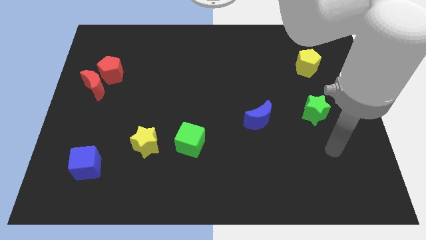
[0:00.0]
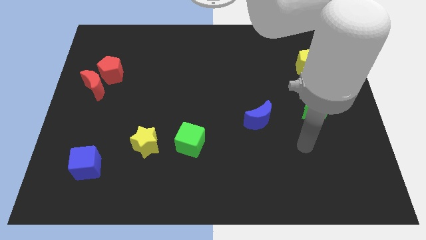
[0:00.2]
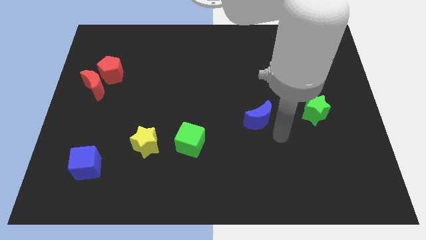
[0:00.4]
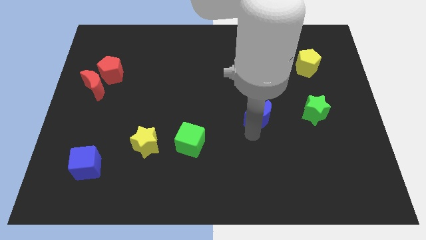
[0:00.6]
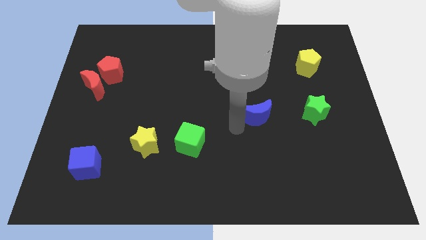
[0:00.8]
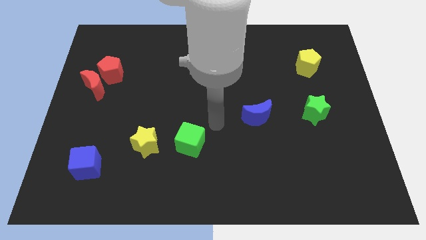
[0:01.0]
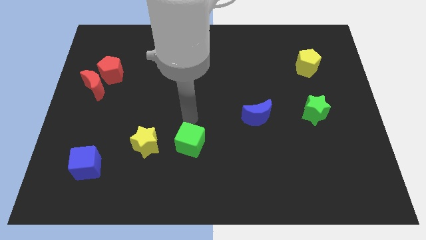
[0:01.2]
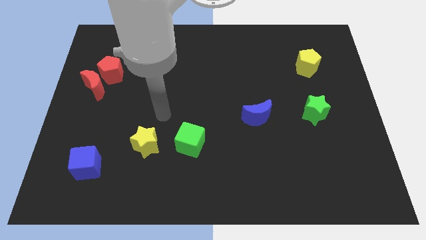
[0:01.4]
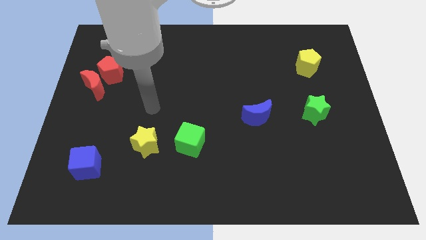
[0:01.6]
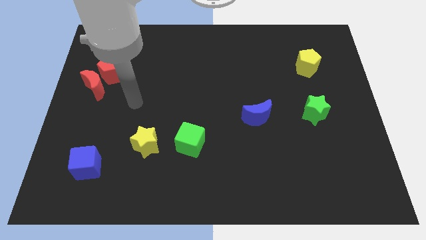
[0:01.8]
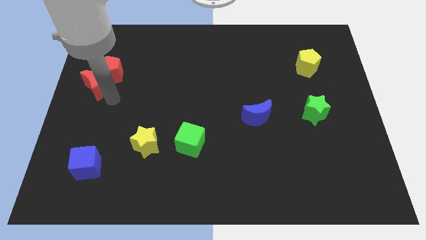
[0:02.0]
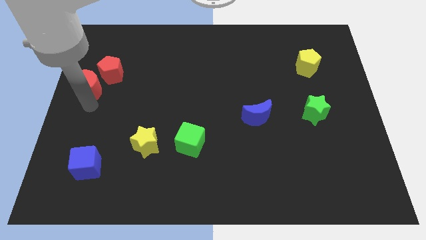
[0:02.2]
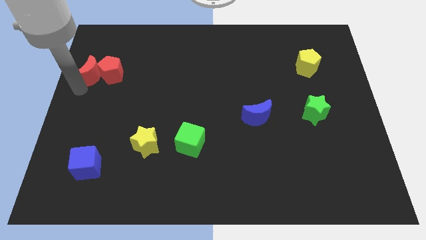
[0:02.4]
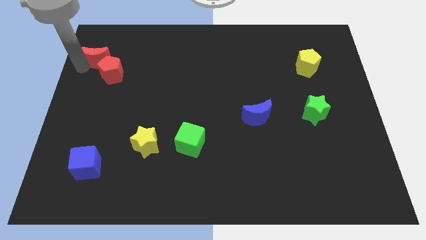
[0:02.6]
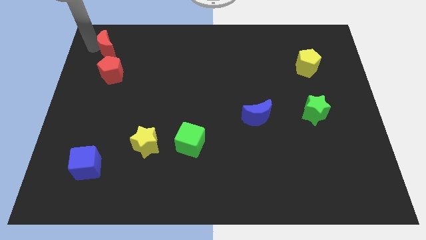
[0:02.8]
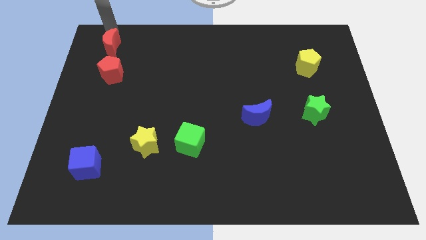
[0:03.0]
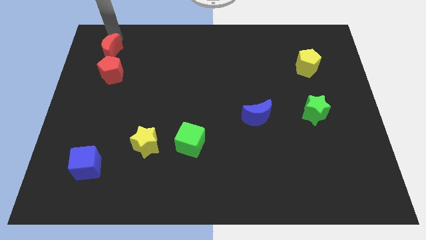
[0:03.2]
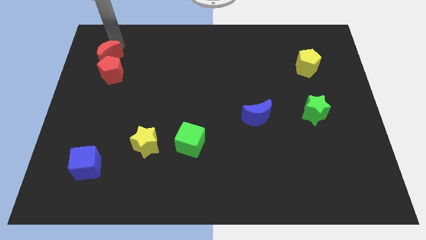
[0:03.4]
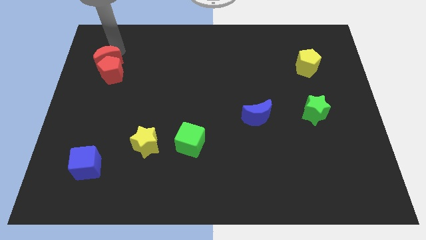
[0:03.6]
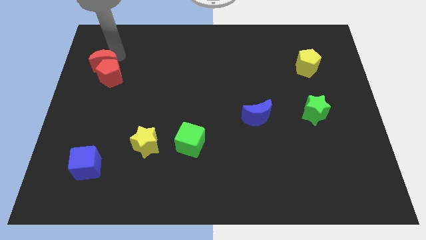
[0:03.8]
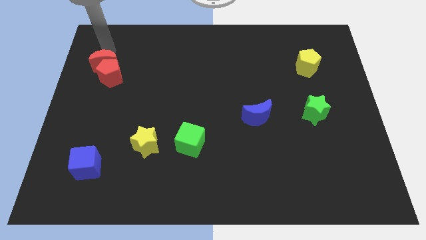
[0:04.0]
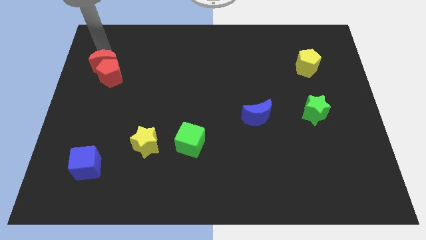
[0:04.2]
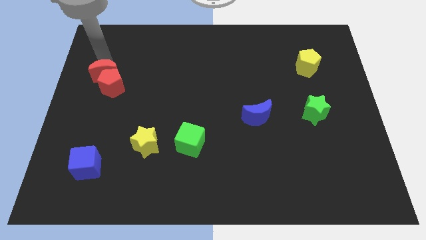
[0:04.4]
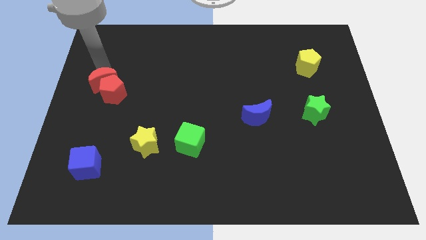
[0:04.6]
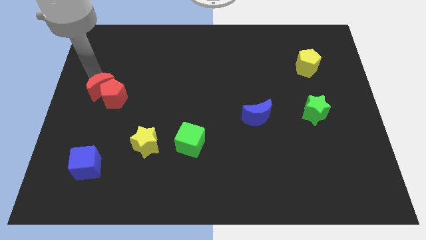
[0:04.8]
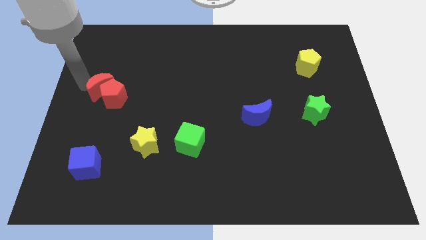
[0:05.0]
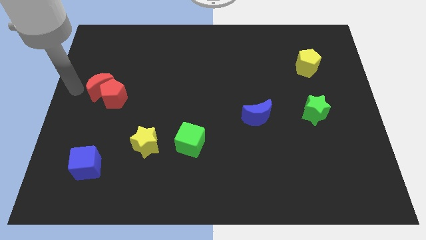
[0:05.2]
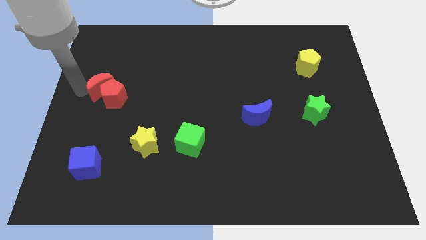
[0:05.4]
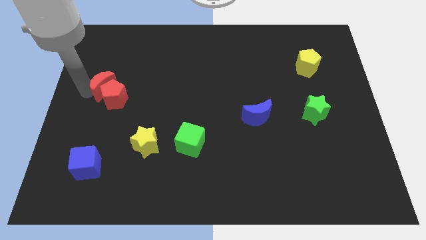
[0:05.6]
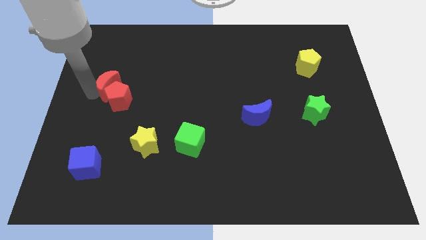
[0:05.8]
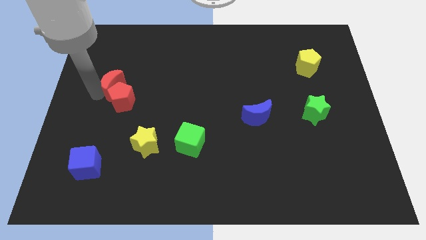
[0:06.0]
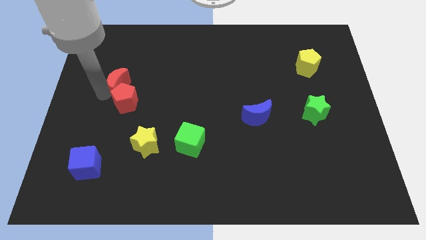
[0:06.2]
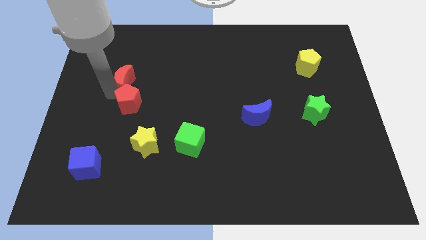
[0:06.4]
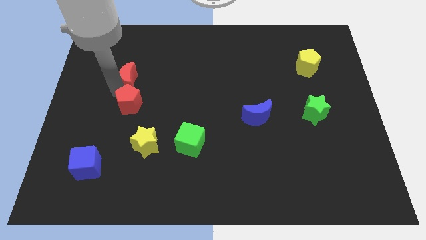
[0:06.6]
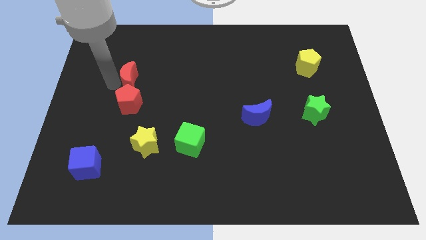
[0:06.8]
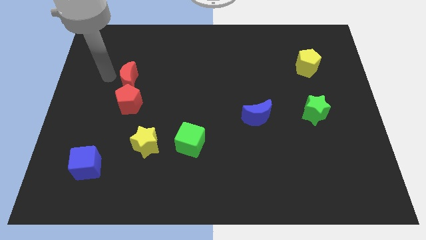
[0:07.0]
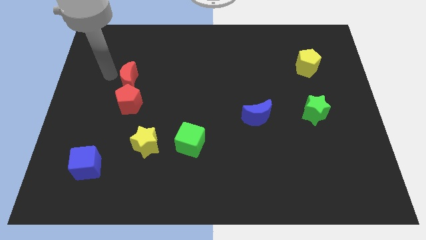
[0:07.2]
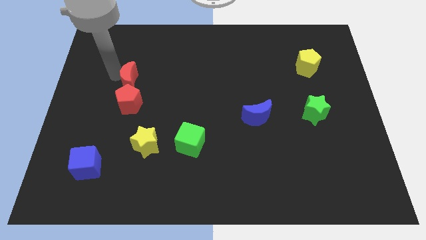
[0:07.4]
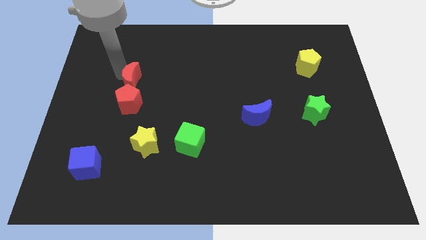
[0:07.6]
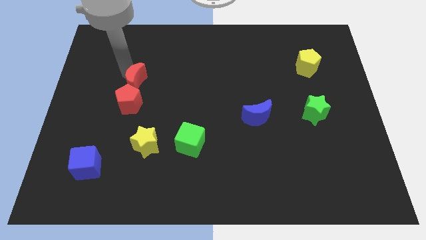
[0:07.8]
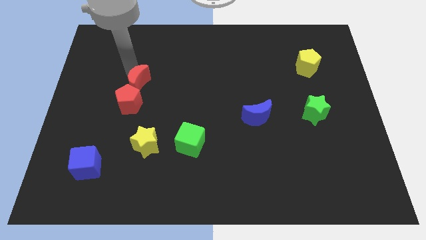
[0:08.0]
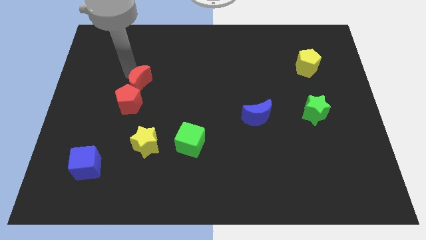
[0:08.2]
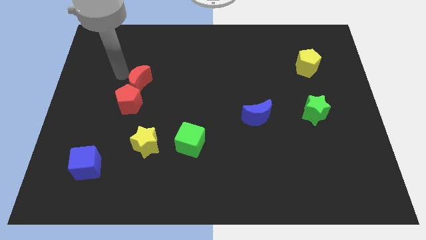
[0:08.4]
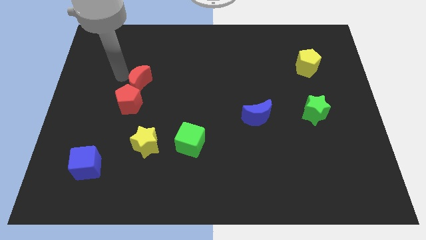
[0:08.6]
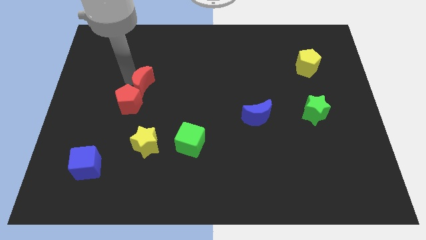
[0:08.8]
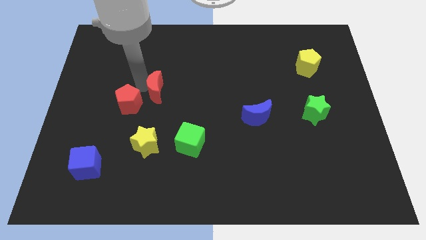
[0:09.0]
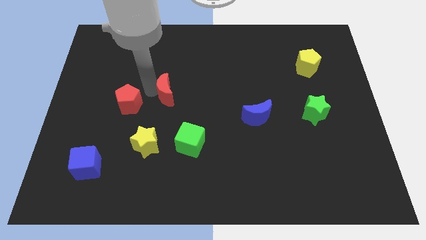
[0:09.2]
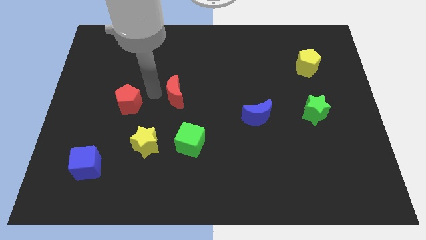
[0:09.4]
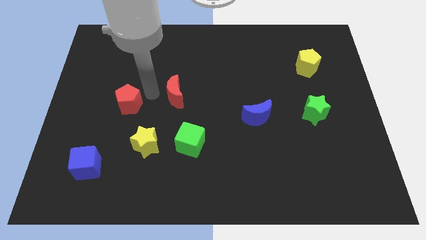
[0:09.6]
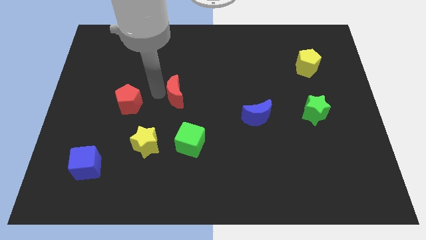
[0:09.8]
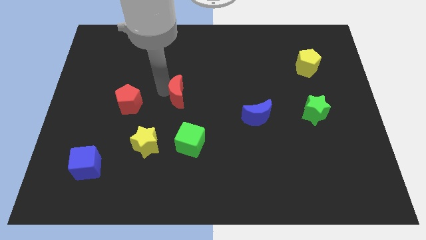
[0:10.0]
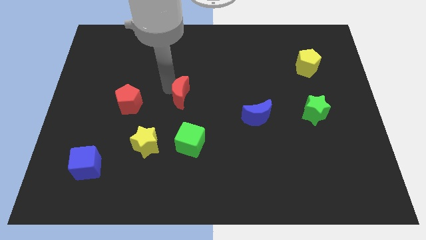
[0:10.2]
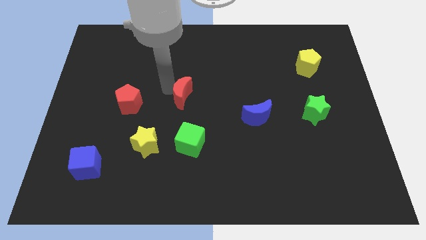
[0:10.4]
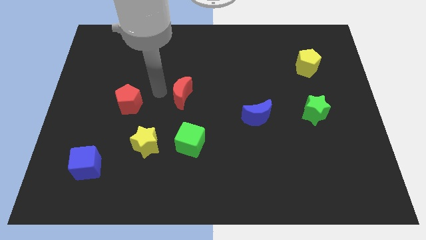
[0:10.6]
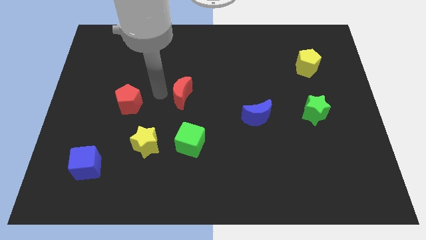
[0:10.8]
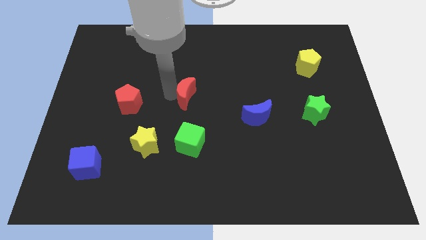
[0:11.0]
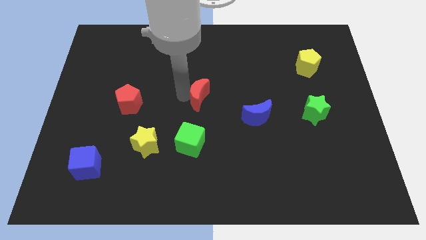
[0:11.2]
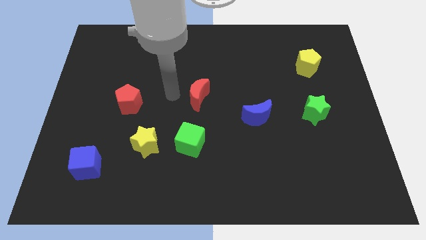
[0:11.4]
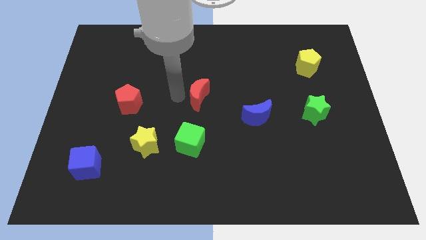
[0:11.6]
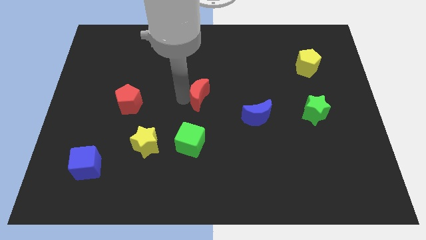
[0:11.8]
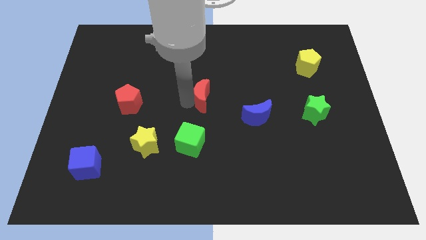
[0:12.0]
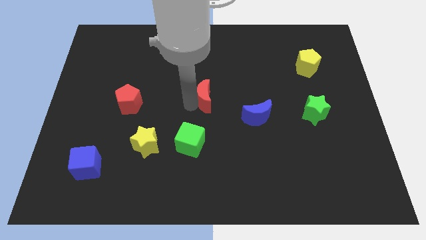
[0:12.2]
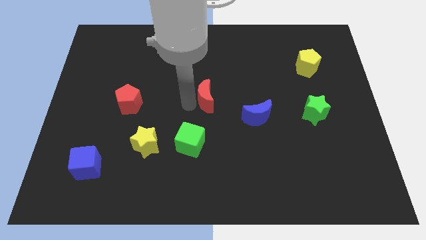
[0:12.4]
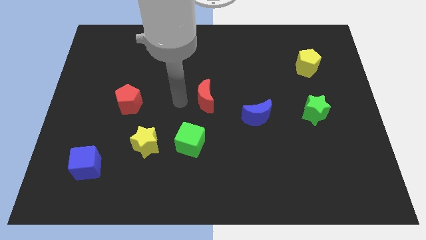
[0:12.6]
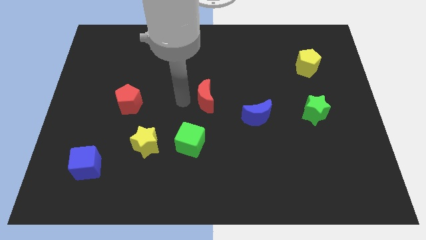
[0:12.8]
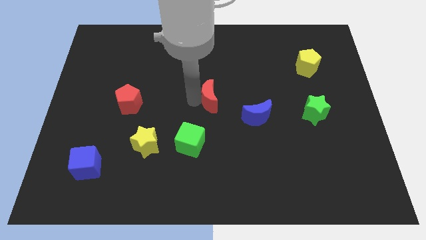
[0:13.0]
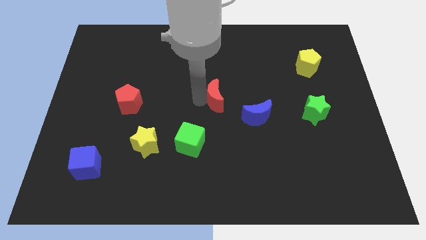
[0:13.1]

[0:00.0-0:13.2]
put the red moon to the top left of the blue moon

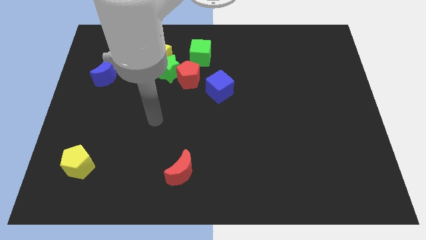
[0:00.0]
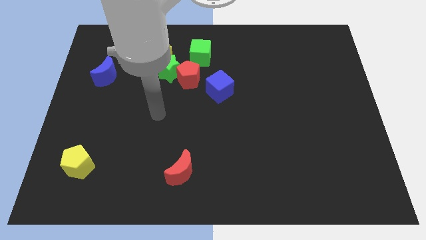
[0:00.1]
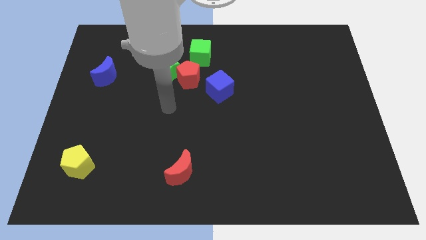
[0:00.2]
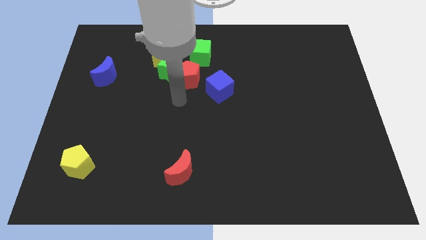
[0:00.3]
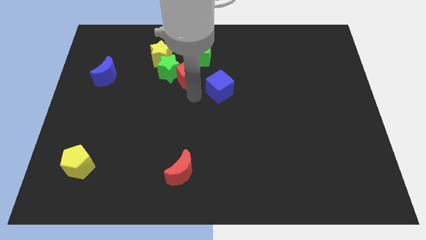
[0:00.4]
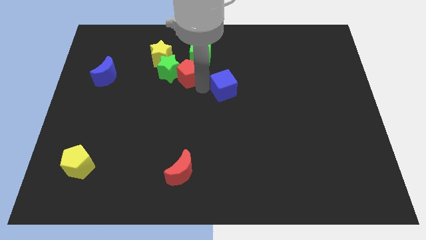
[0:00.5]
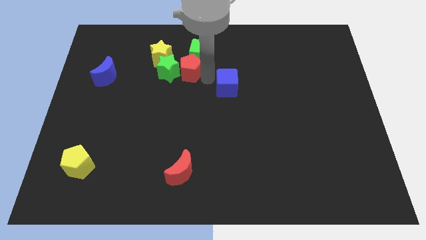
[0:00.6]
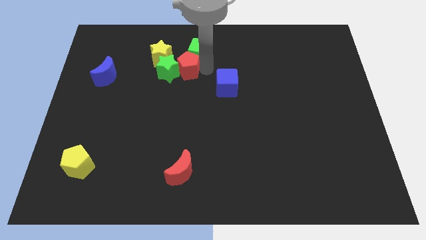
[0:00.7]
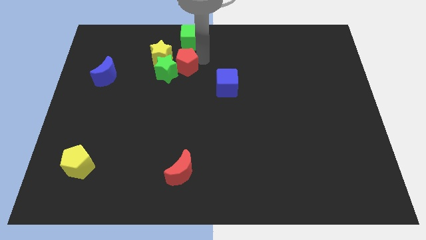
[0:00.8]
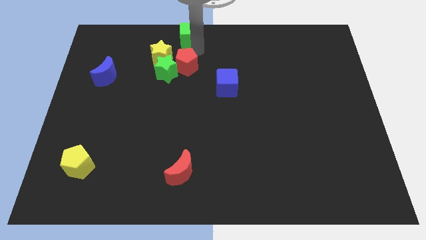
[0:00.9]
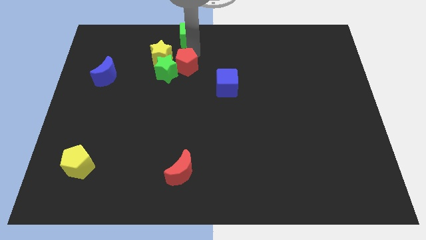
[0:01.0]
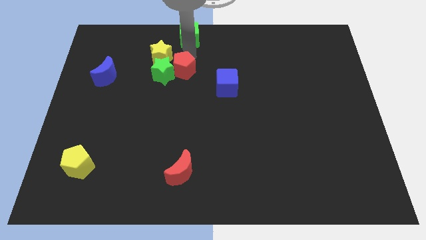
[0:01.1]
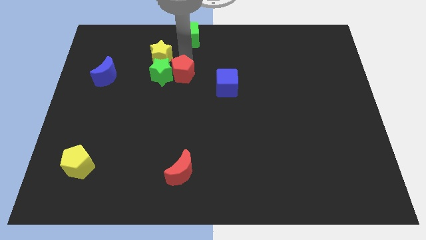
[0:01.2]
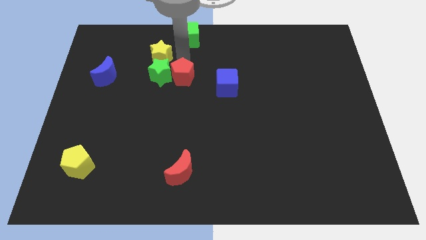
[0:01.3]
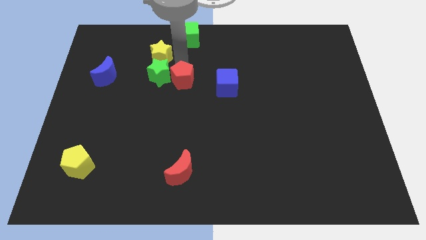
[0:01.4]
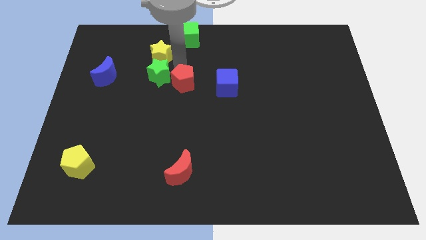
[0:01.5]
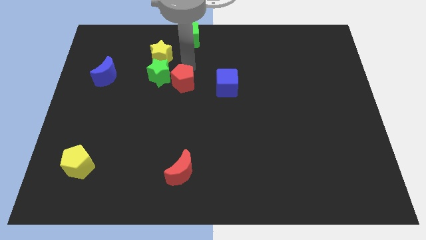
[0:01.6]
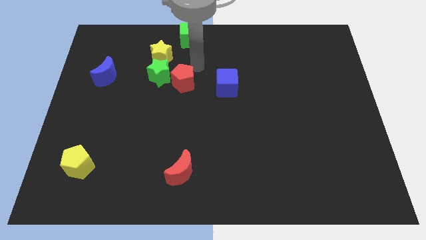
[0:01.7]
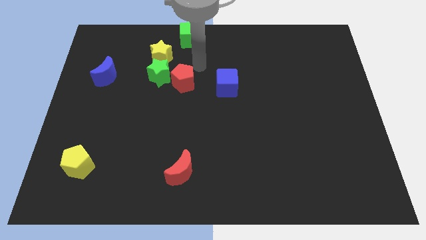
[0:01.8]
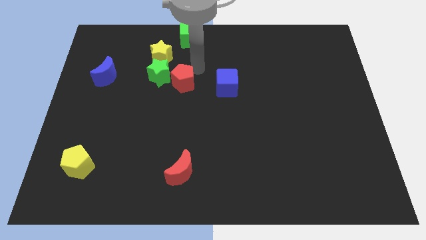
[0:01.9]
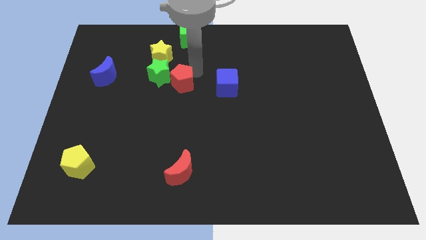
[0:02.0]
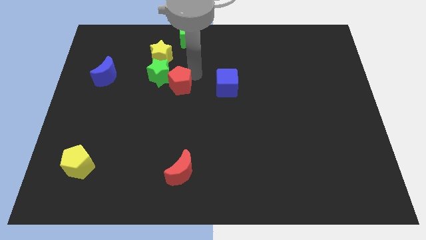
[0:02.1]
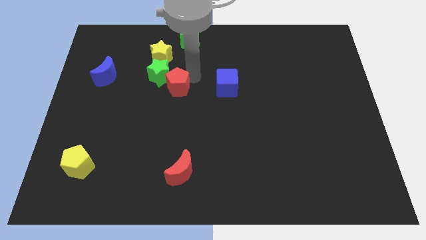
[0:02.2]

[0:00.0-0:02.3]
move the red pentagon below the green star
